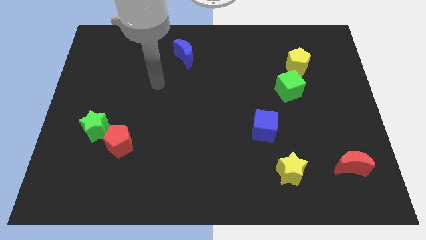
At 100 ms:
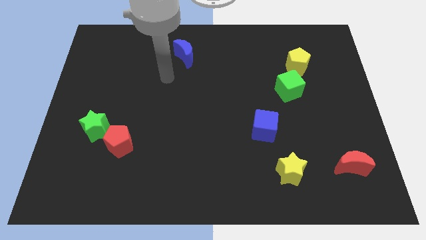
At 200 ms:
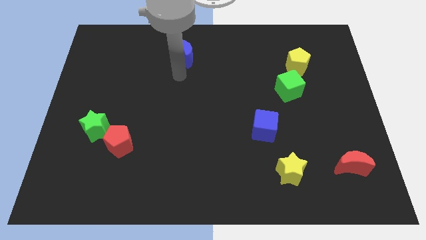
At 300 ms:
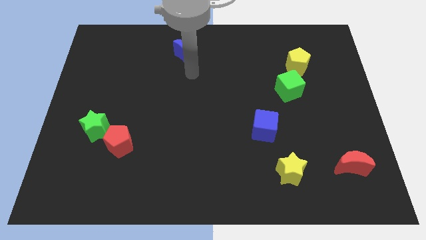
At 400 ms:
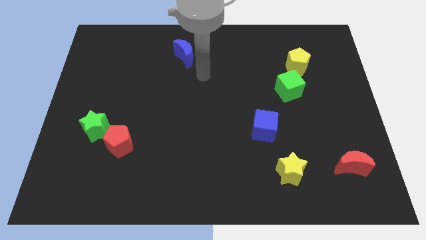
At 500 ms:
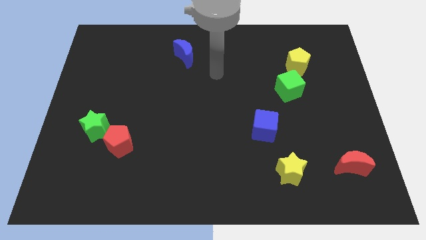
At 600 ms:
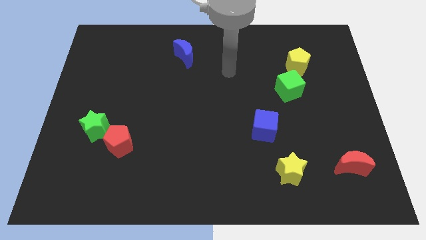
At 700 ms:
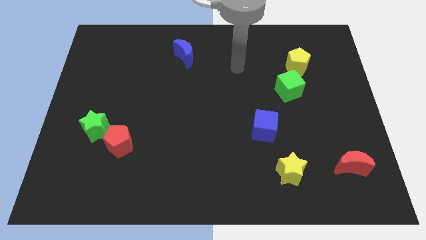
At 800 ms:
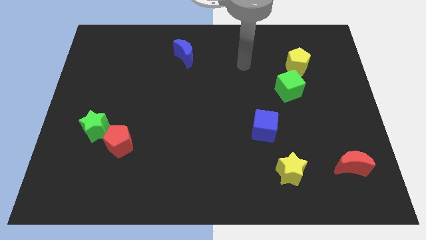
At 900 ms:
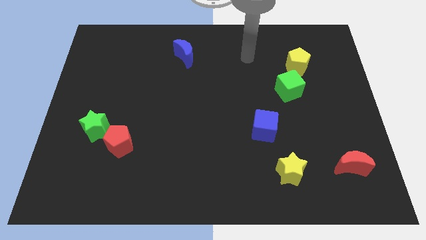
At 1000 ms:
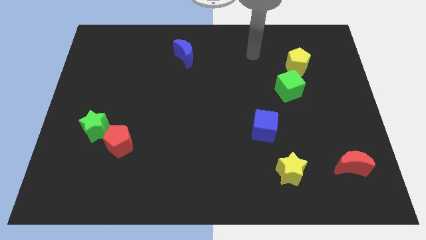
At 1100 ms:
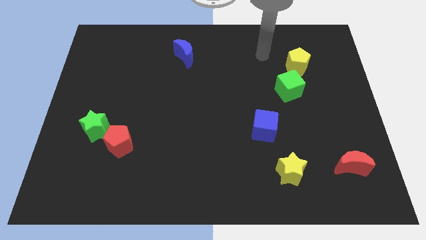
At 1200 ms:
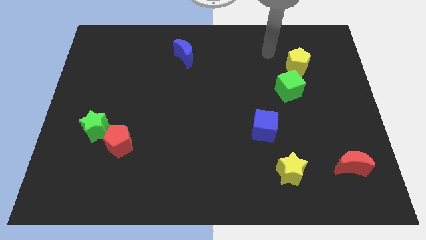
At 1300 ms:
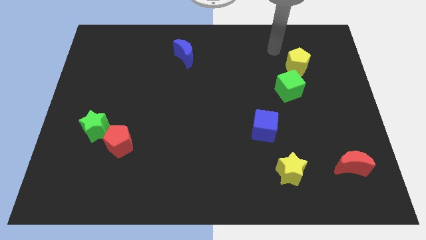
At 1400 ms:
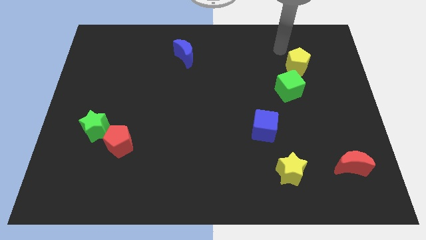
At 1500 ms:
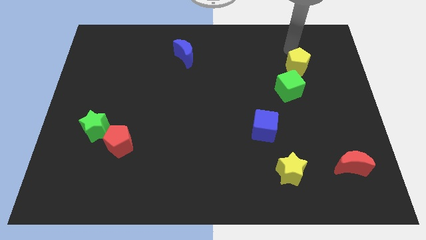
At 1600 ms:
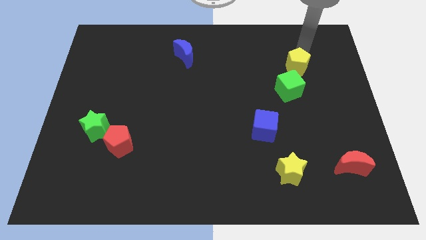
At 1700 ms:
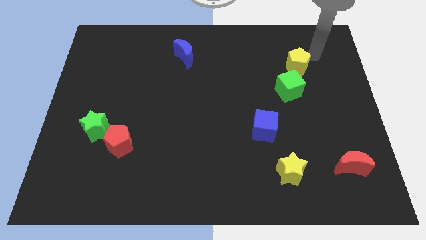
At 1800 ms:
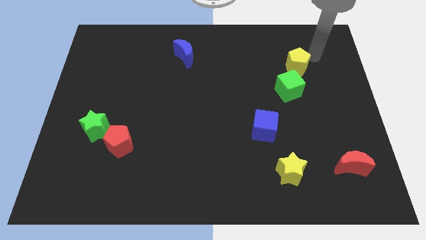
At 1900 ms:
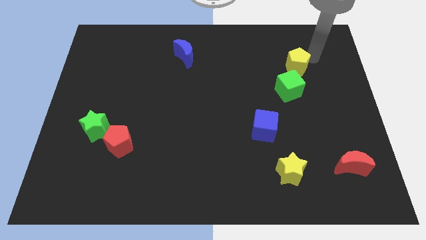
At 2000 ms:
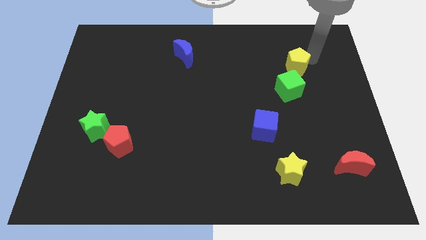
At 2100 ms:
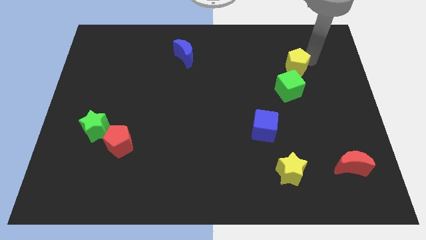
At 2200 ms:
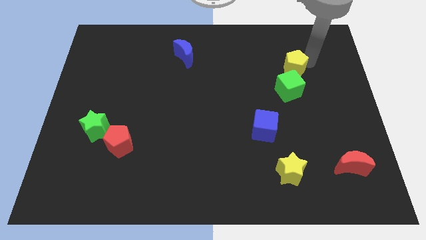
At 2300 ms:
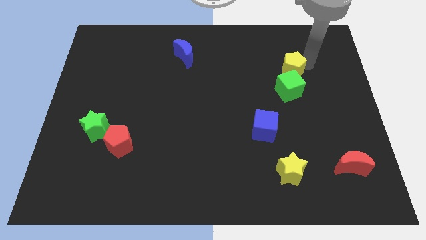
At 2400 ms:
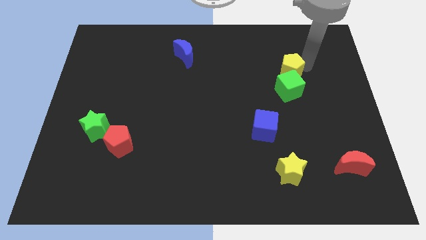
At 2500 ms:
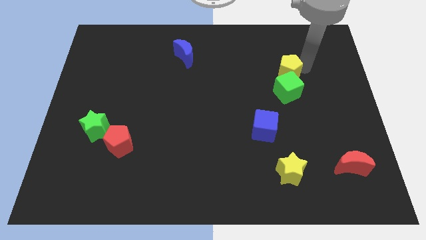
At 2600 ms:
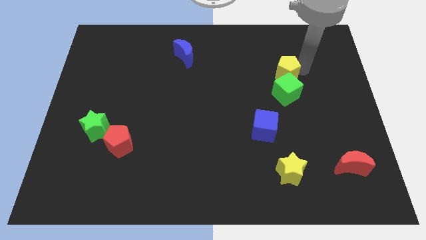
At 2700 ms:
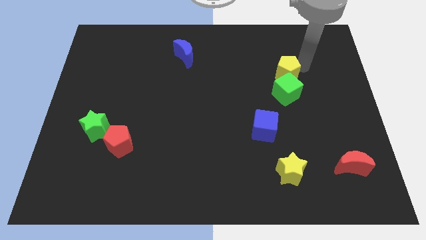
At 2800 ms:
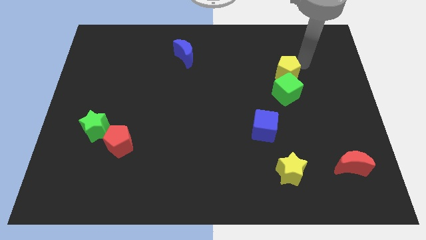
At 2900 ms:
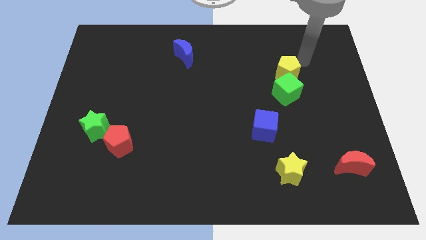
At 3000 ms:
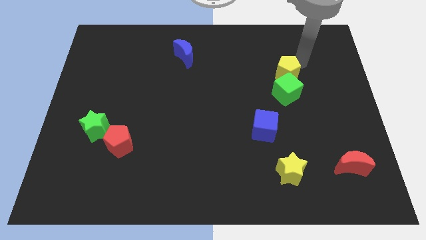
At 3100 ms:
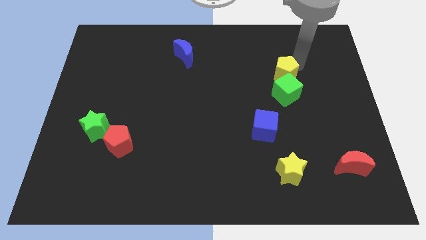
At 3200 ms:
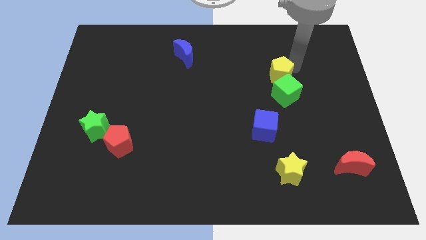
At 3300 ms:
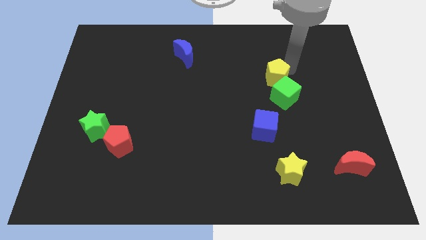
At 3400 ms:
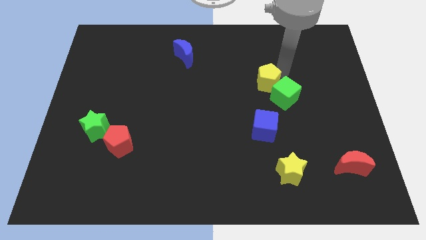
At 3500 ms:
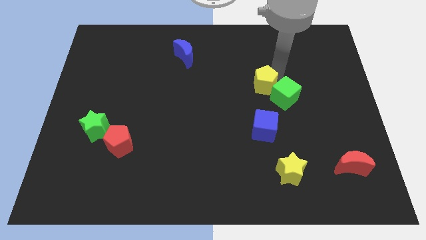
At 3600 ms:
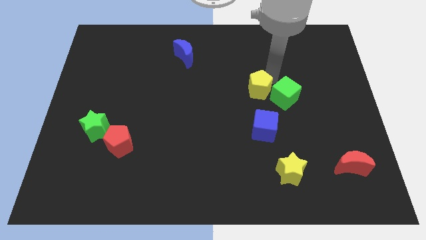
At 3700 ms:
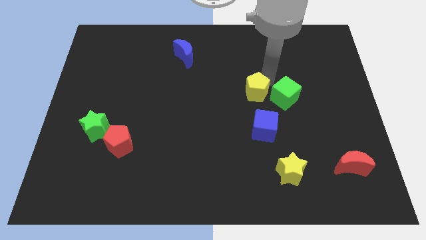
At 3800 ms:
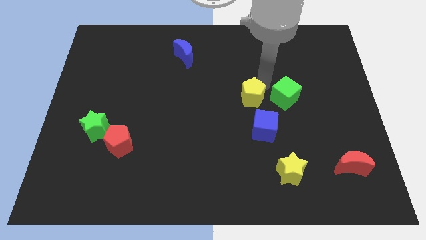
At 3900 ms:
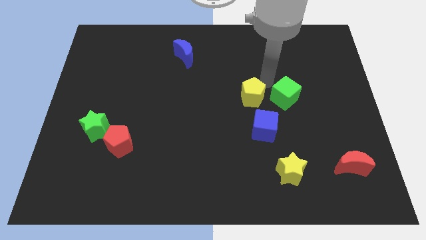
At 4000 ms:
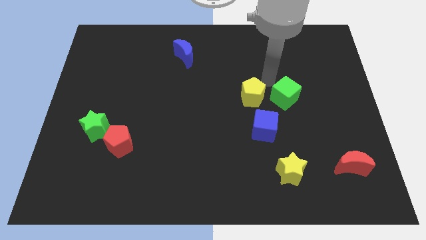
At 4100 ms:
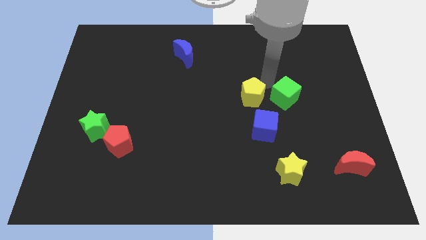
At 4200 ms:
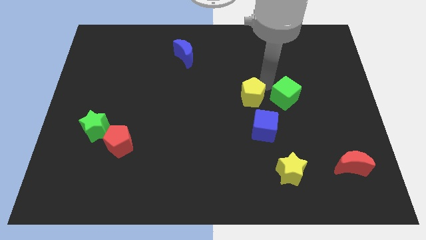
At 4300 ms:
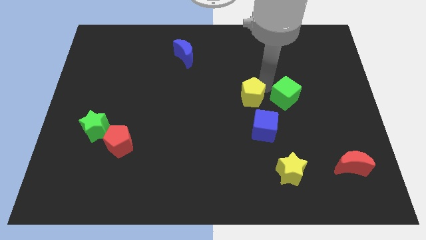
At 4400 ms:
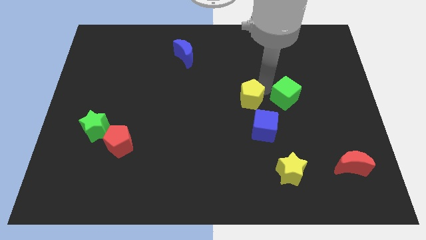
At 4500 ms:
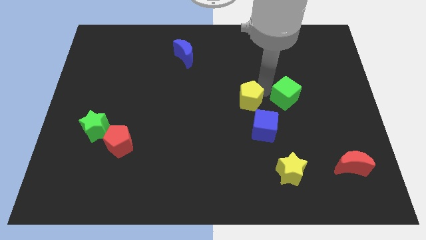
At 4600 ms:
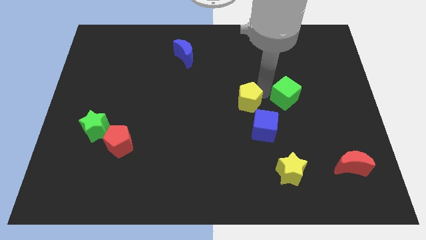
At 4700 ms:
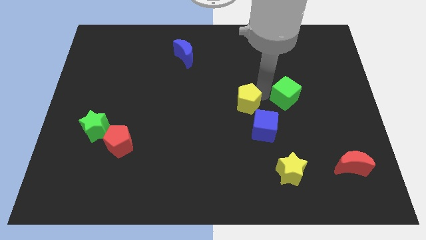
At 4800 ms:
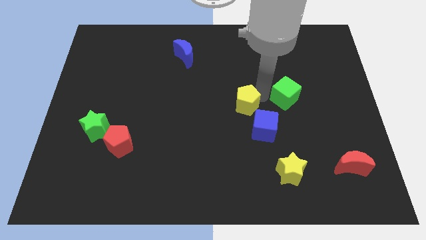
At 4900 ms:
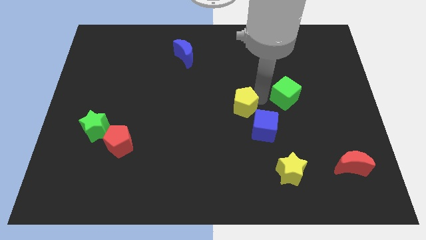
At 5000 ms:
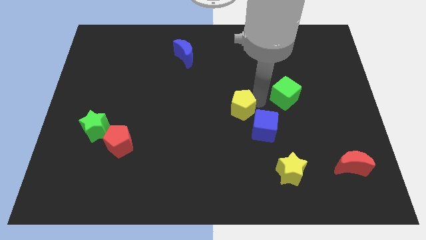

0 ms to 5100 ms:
push the yellow pentagon diagonally downwards and left

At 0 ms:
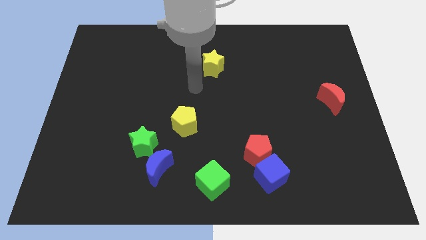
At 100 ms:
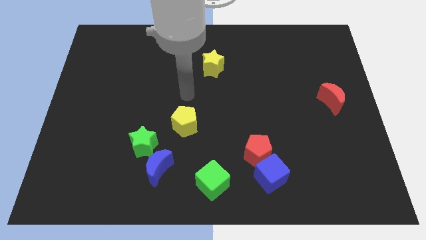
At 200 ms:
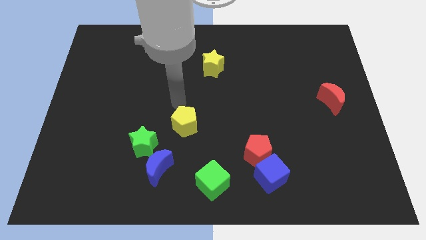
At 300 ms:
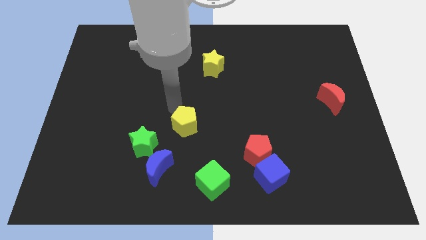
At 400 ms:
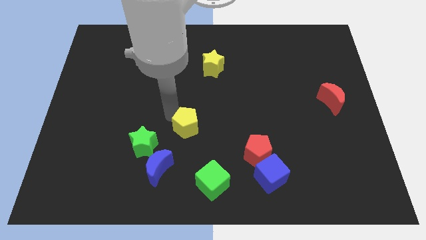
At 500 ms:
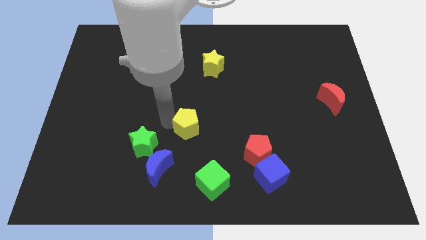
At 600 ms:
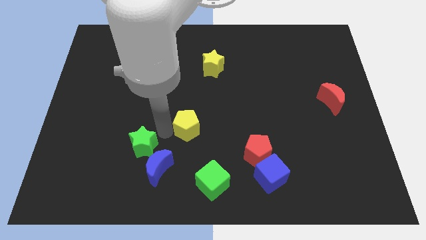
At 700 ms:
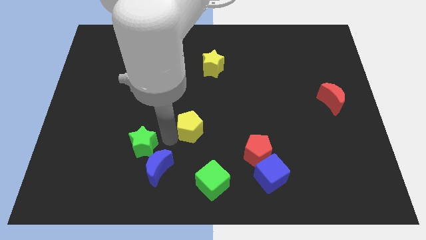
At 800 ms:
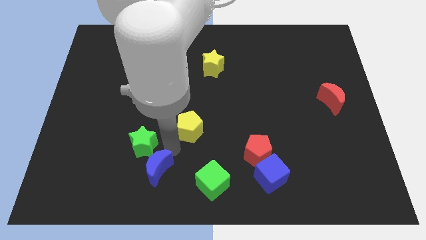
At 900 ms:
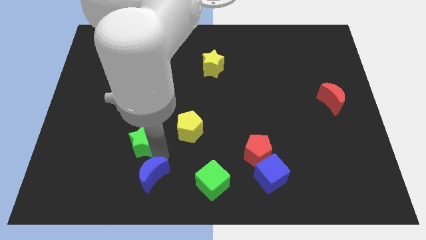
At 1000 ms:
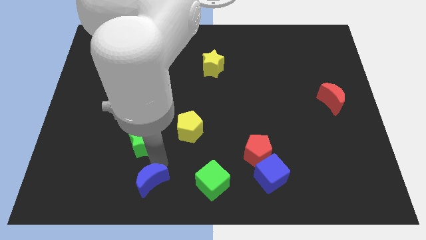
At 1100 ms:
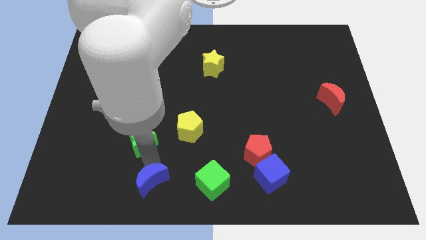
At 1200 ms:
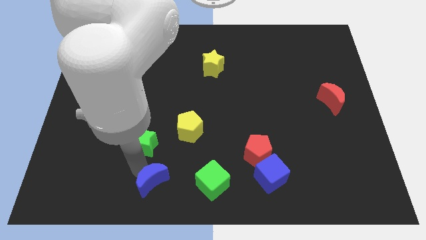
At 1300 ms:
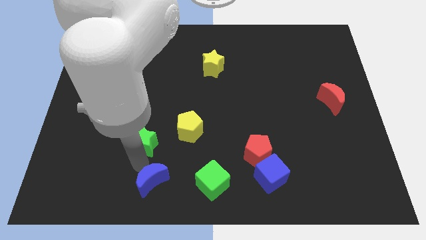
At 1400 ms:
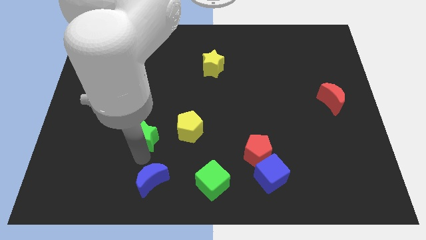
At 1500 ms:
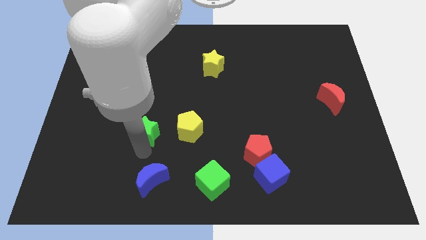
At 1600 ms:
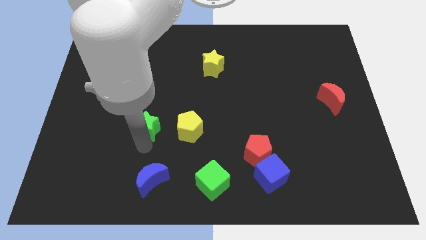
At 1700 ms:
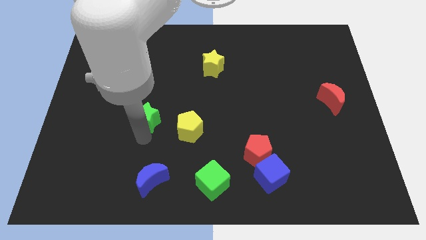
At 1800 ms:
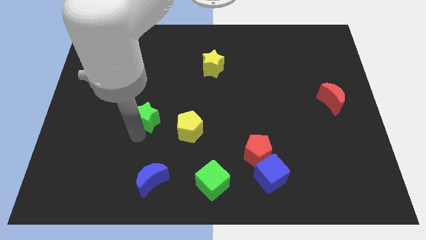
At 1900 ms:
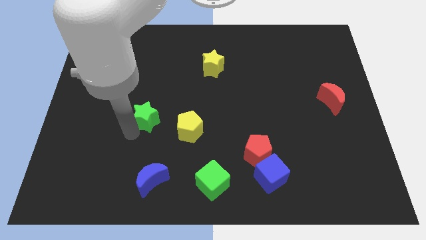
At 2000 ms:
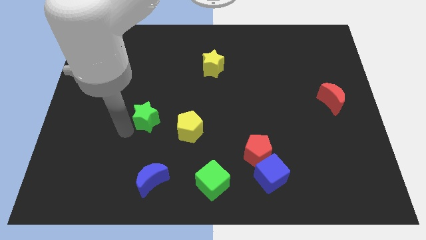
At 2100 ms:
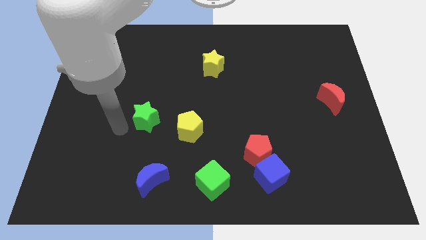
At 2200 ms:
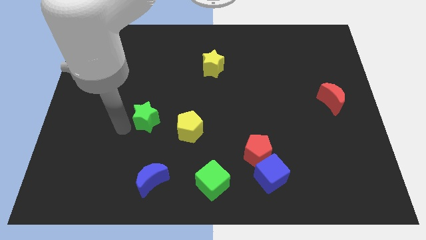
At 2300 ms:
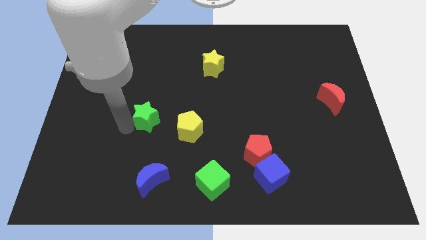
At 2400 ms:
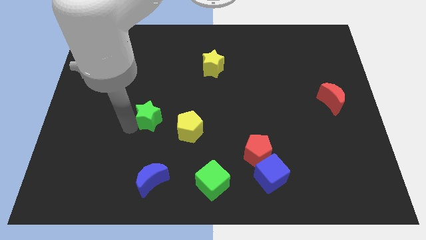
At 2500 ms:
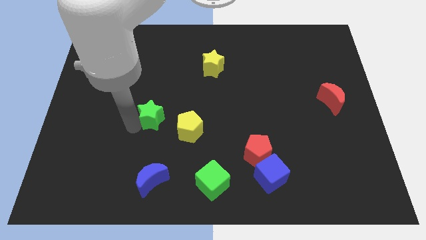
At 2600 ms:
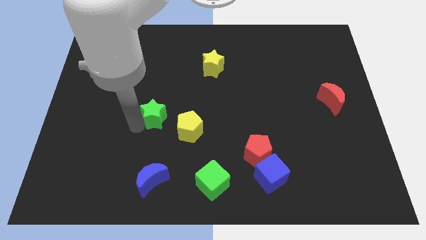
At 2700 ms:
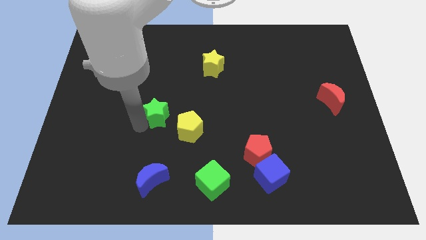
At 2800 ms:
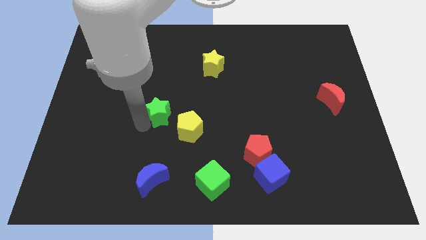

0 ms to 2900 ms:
slightly push the green star up and to the right
